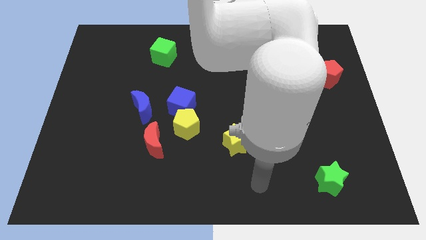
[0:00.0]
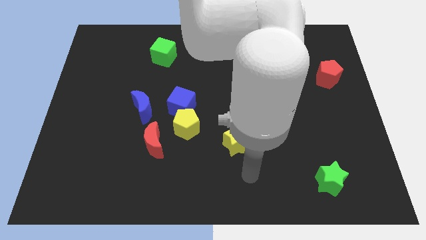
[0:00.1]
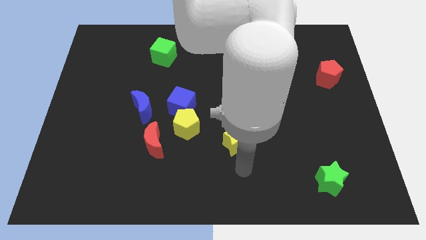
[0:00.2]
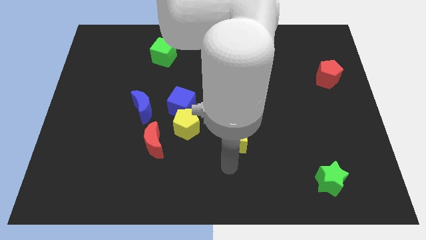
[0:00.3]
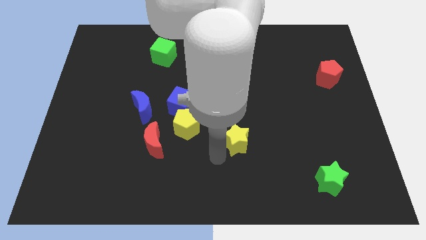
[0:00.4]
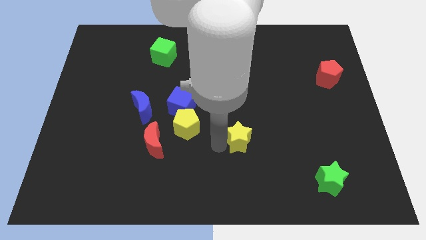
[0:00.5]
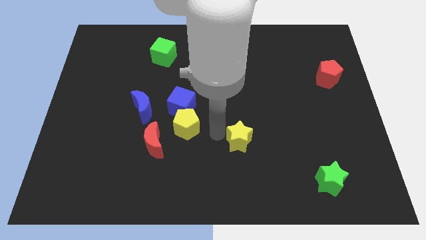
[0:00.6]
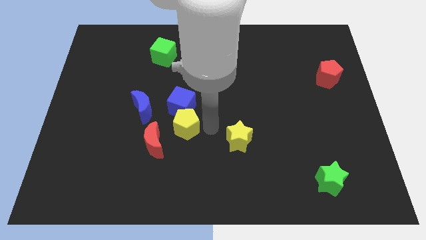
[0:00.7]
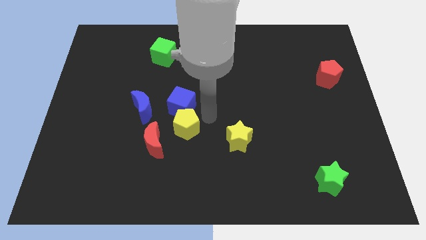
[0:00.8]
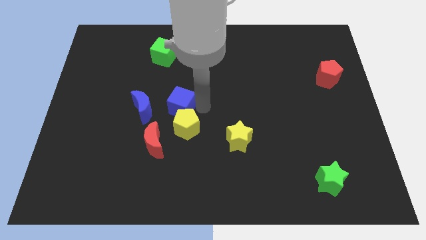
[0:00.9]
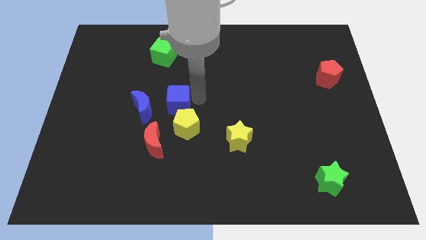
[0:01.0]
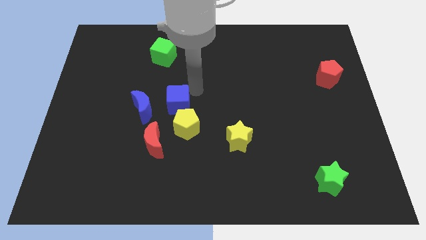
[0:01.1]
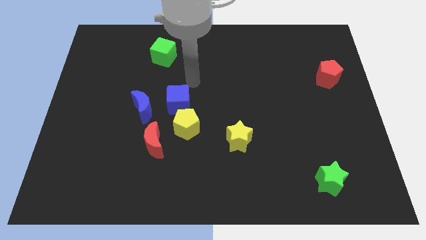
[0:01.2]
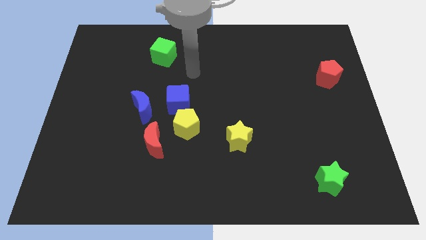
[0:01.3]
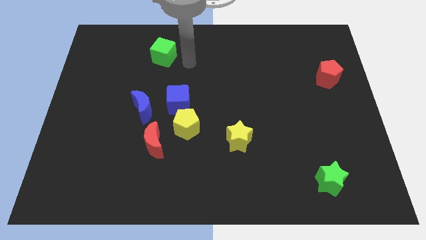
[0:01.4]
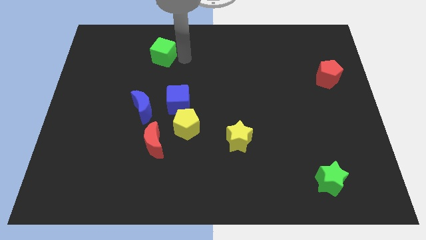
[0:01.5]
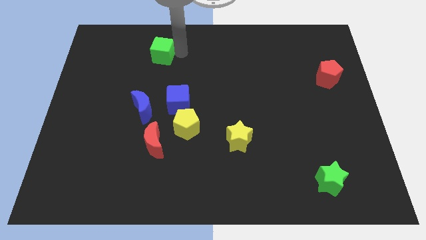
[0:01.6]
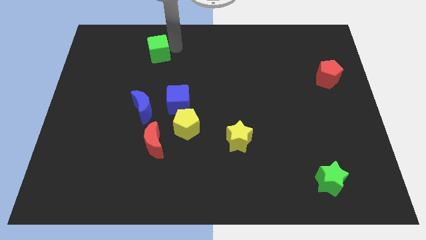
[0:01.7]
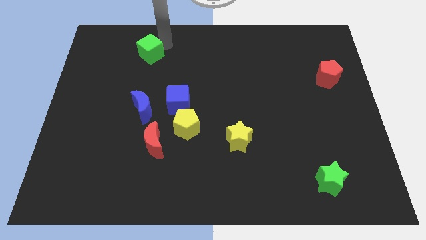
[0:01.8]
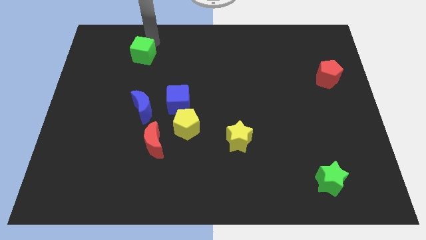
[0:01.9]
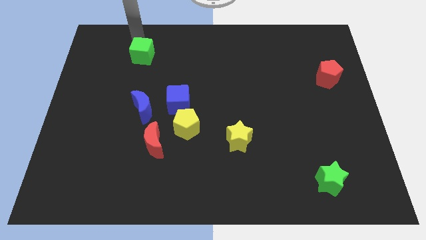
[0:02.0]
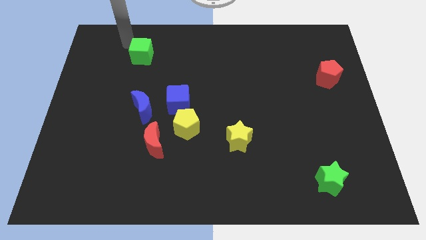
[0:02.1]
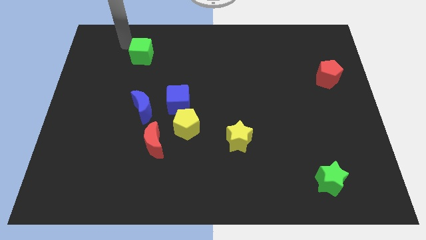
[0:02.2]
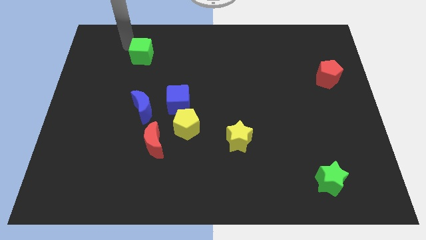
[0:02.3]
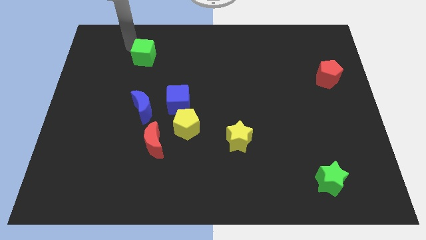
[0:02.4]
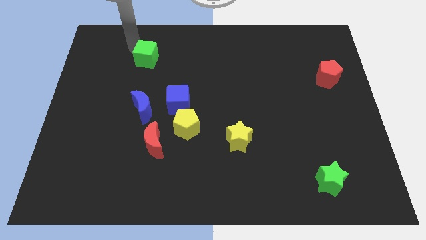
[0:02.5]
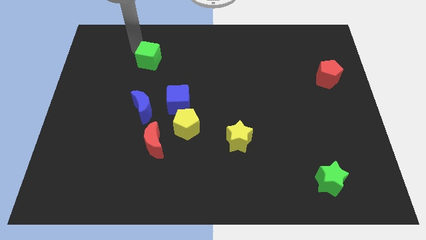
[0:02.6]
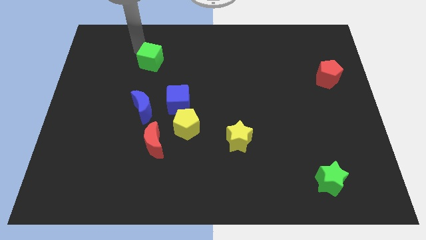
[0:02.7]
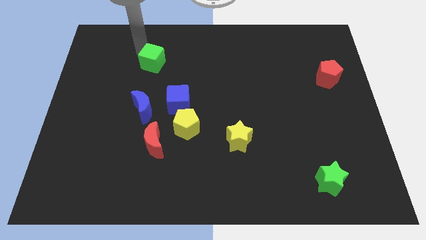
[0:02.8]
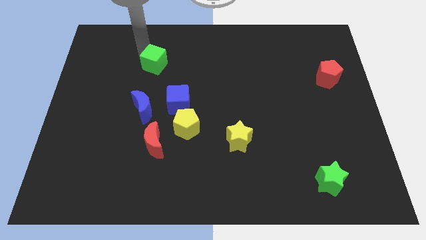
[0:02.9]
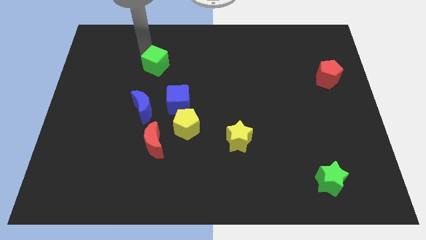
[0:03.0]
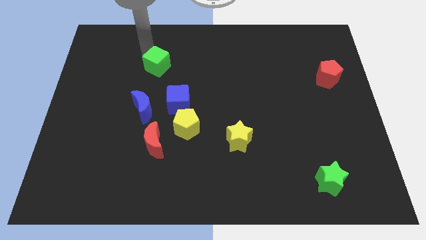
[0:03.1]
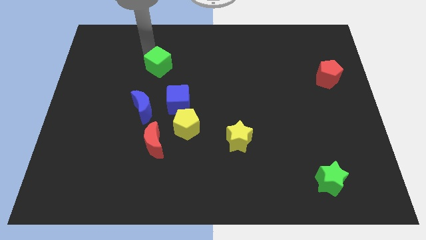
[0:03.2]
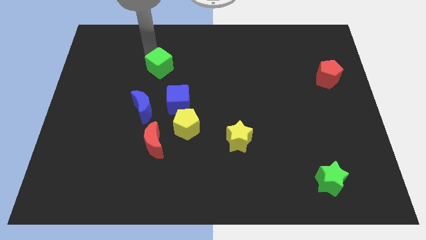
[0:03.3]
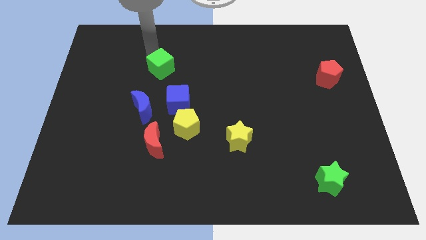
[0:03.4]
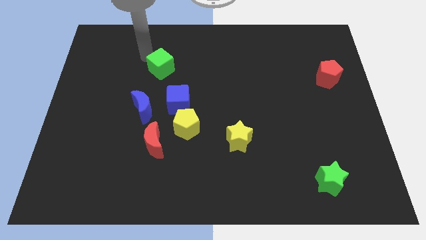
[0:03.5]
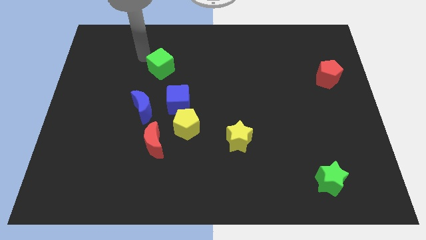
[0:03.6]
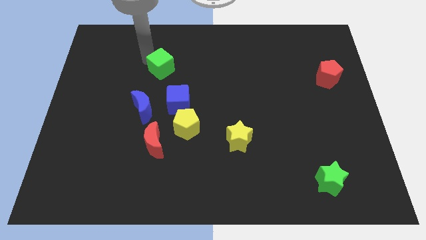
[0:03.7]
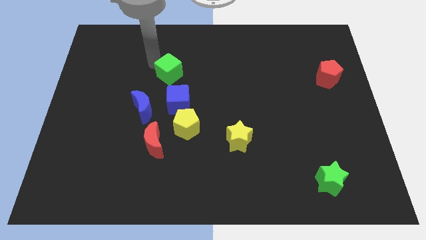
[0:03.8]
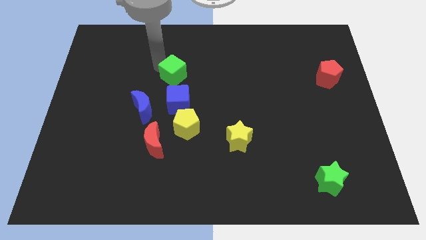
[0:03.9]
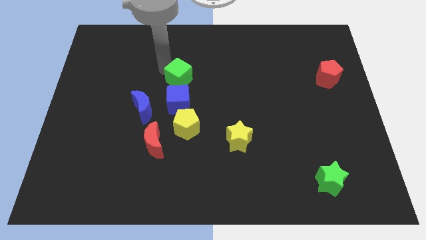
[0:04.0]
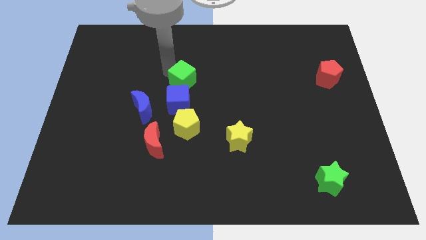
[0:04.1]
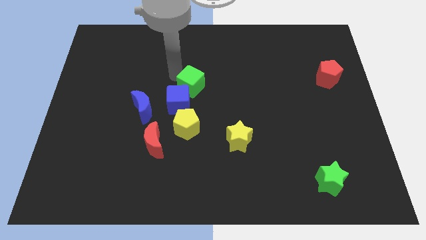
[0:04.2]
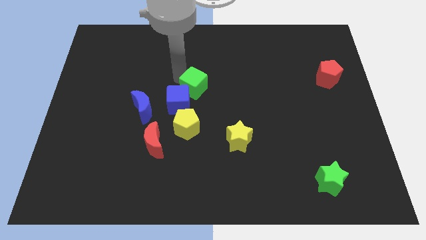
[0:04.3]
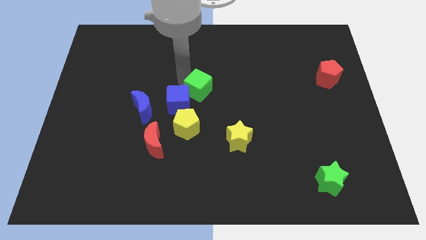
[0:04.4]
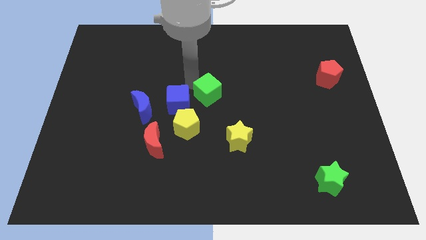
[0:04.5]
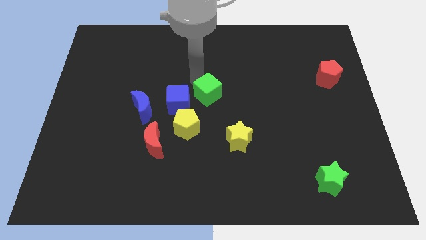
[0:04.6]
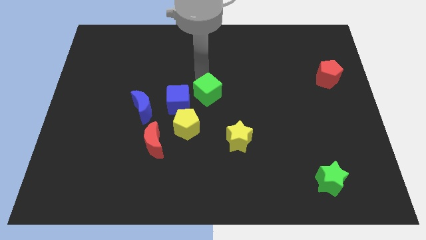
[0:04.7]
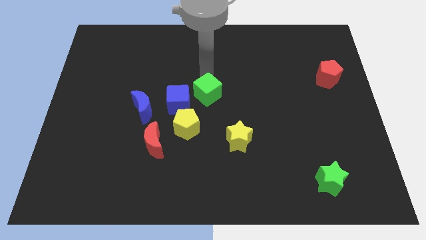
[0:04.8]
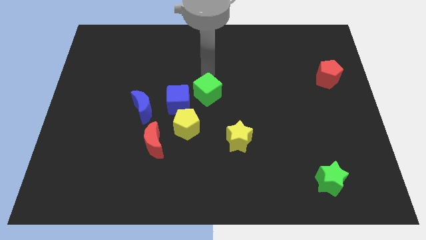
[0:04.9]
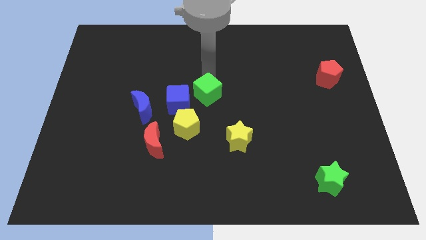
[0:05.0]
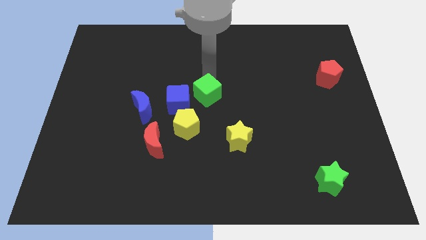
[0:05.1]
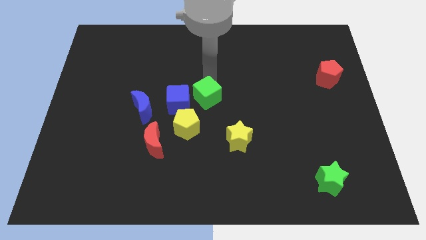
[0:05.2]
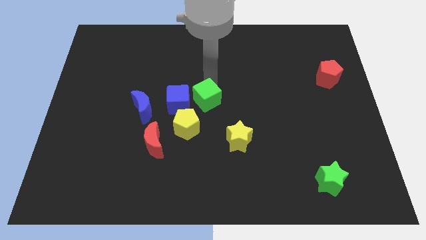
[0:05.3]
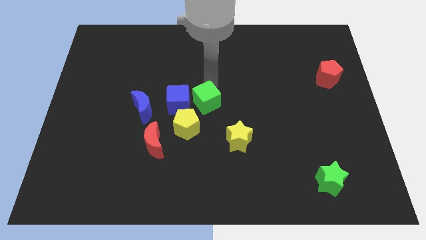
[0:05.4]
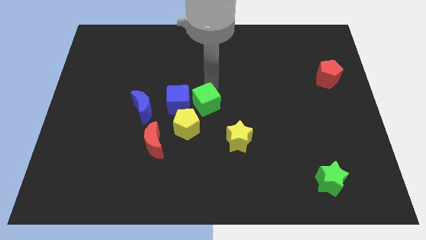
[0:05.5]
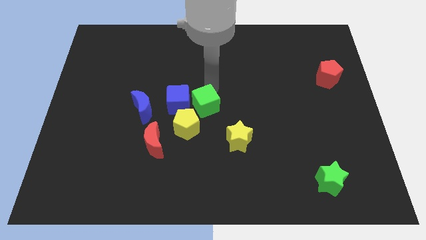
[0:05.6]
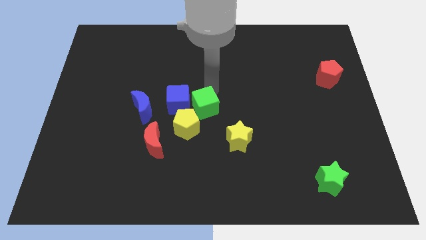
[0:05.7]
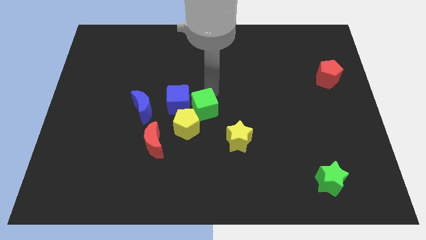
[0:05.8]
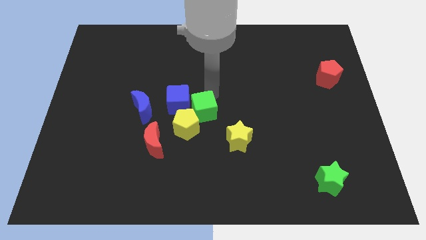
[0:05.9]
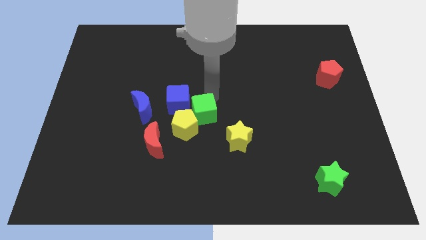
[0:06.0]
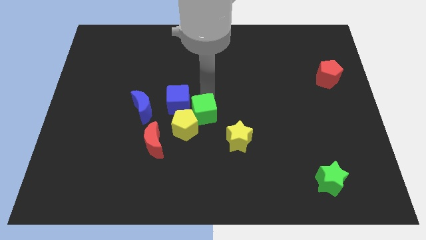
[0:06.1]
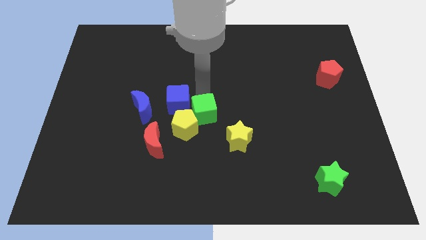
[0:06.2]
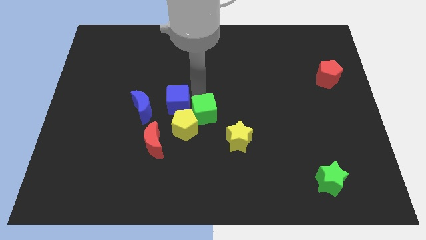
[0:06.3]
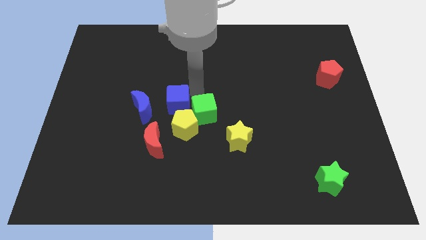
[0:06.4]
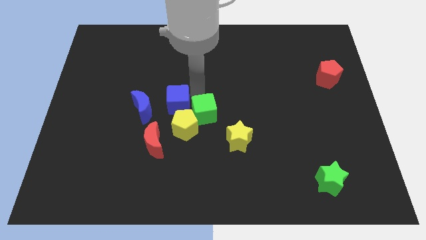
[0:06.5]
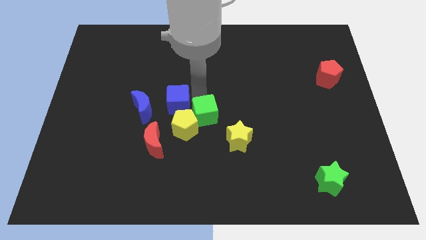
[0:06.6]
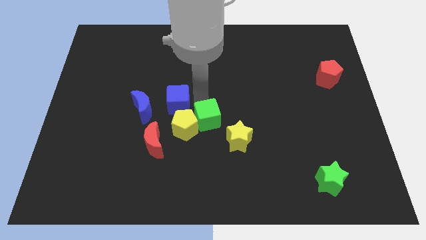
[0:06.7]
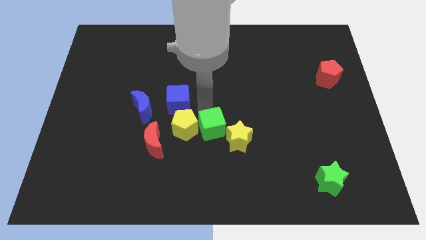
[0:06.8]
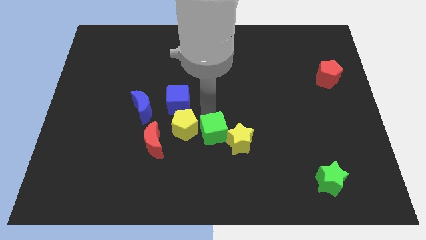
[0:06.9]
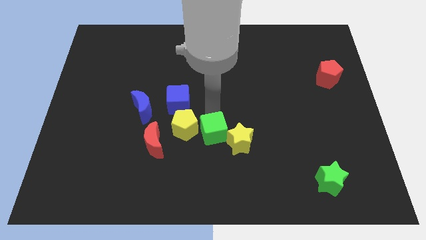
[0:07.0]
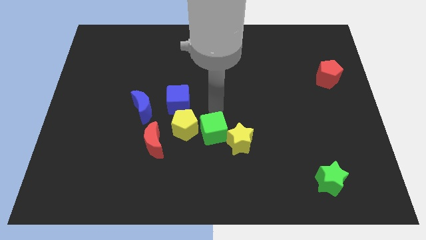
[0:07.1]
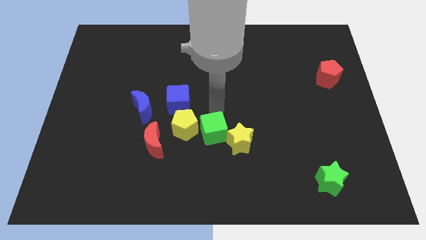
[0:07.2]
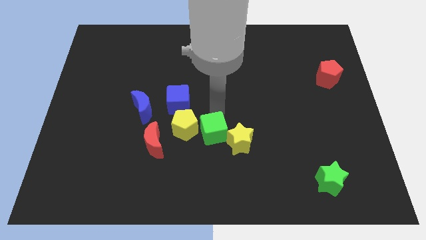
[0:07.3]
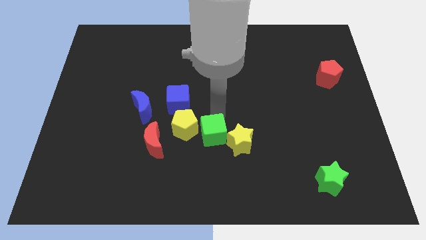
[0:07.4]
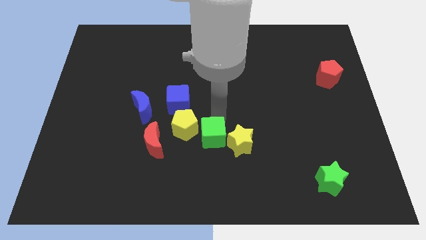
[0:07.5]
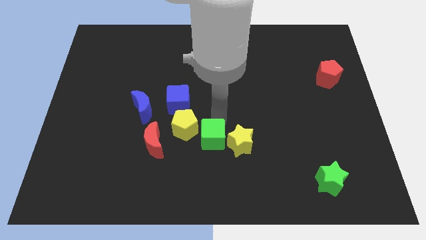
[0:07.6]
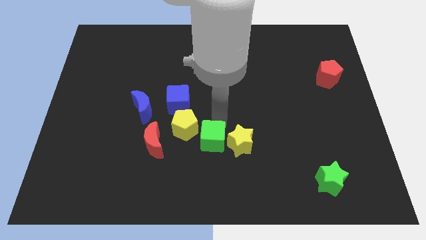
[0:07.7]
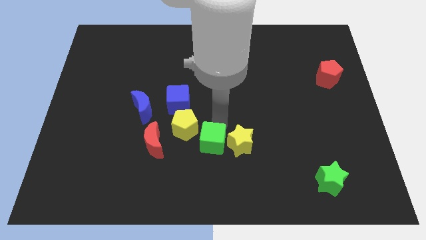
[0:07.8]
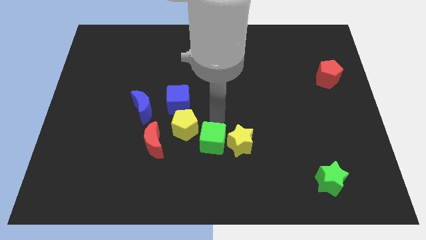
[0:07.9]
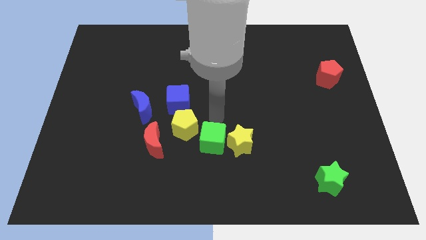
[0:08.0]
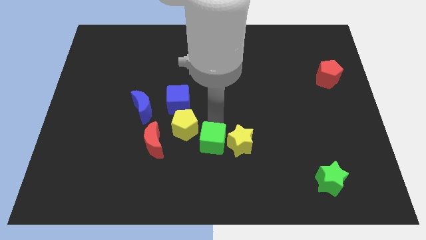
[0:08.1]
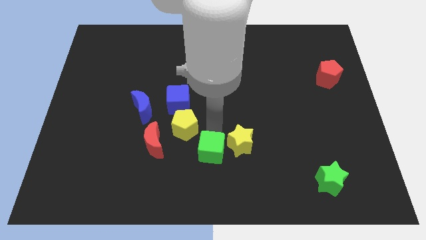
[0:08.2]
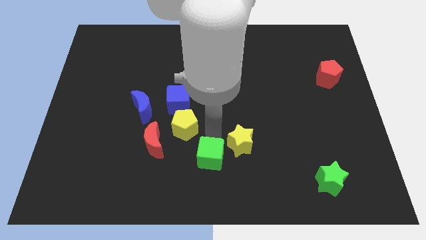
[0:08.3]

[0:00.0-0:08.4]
slide the green cube to the bottom side
